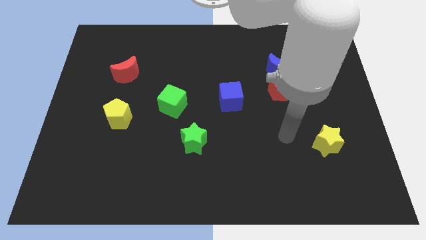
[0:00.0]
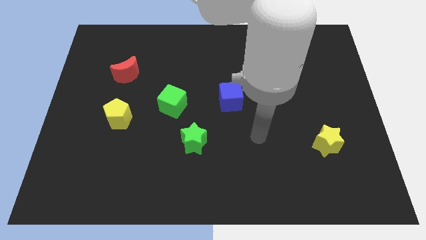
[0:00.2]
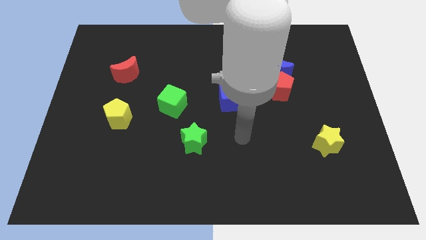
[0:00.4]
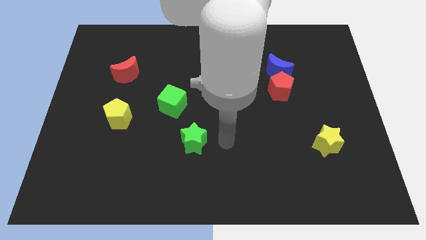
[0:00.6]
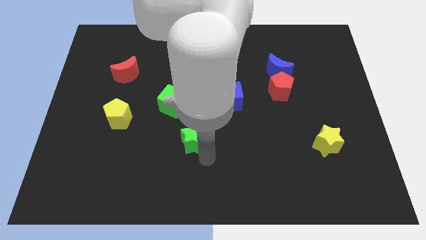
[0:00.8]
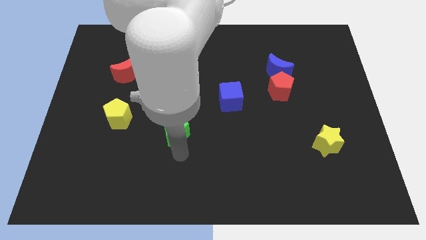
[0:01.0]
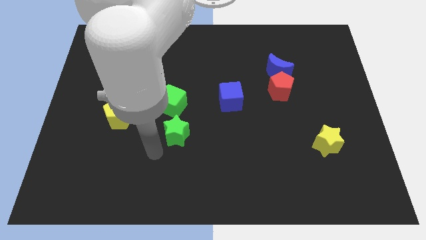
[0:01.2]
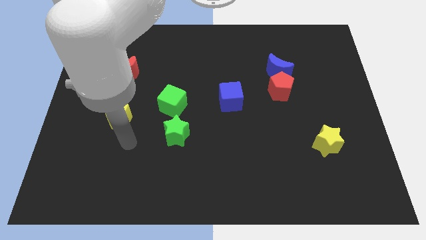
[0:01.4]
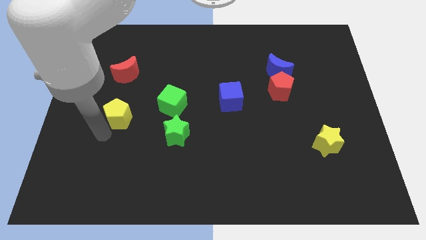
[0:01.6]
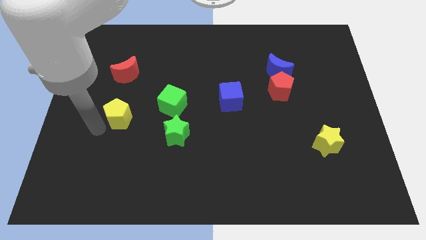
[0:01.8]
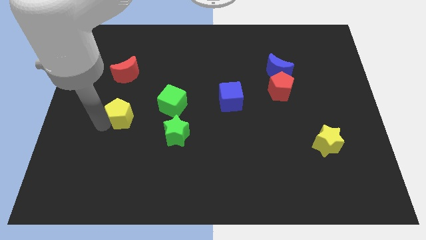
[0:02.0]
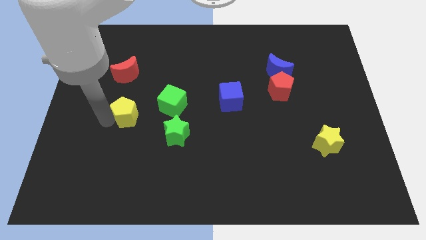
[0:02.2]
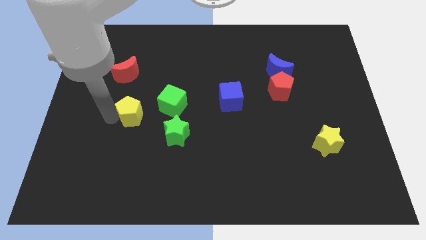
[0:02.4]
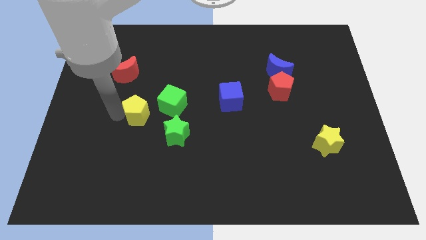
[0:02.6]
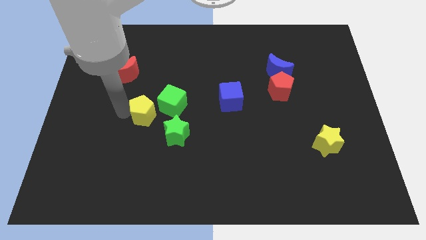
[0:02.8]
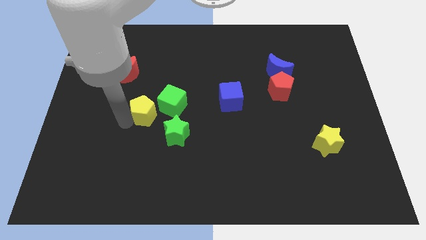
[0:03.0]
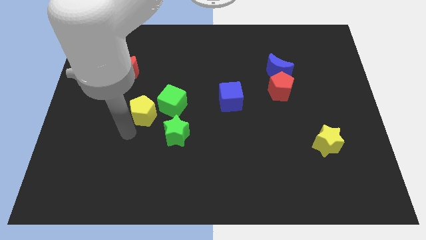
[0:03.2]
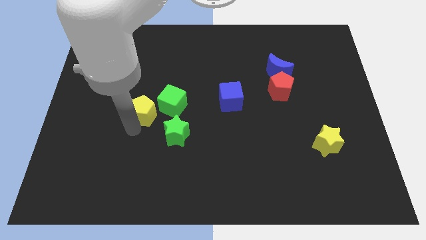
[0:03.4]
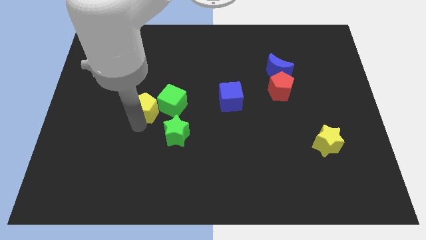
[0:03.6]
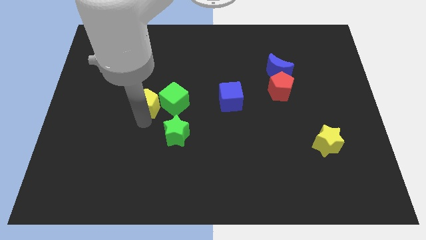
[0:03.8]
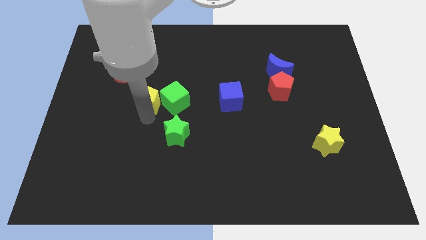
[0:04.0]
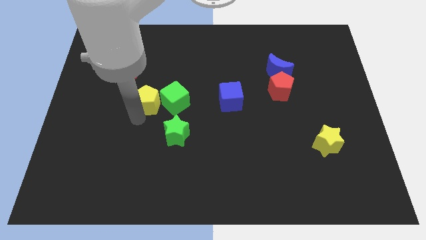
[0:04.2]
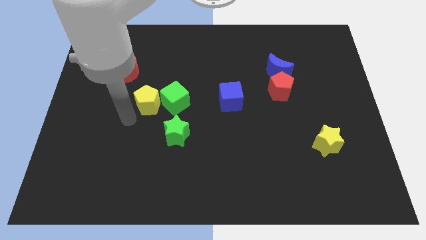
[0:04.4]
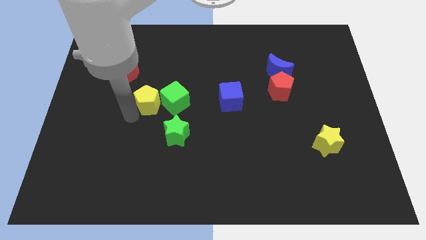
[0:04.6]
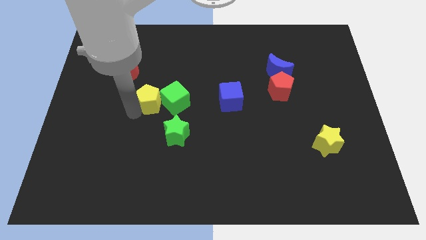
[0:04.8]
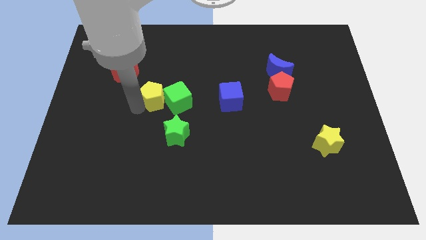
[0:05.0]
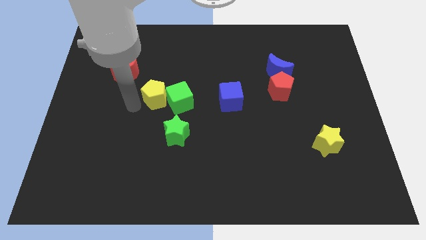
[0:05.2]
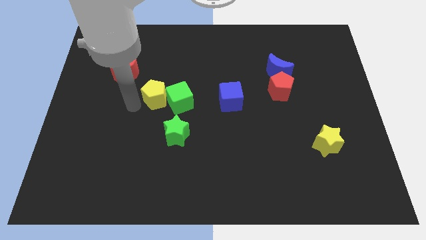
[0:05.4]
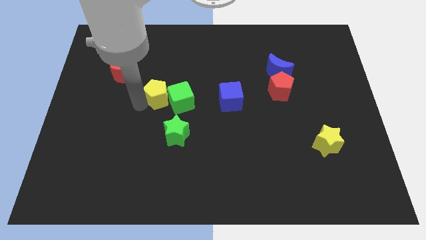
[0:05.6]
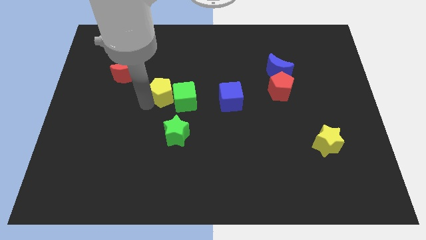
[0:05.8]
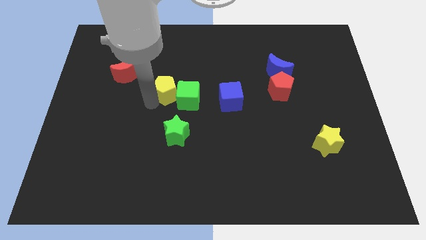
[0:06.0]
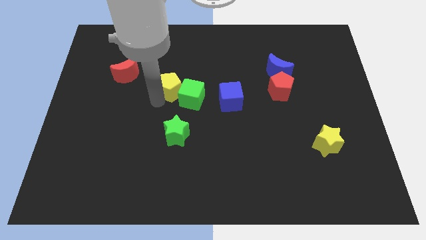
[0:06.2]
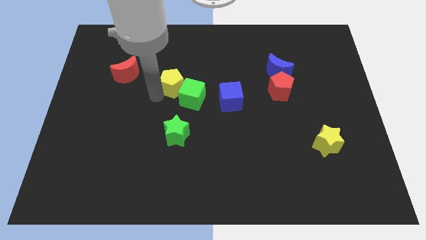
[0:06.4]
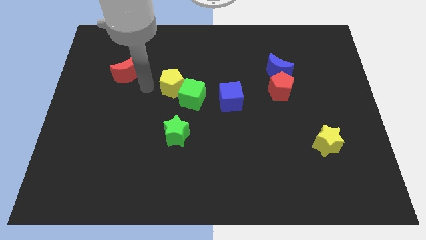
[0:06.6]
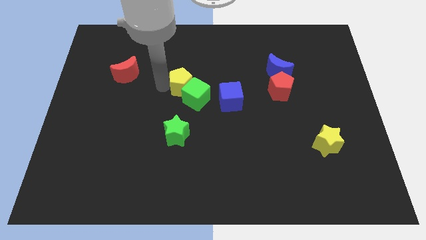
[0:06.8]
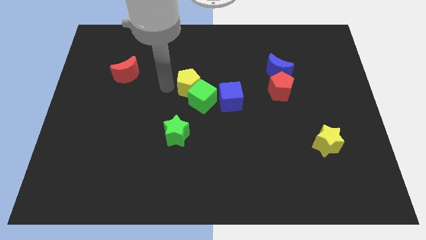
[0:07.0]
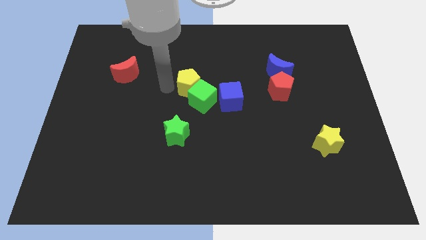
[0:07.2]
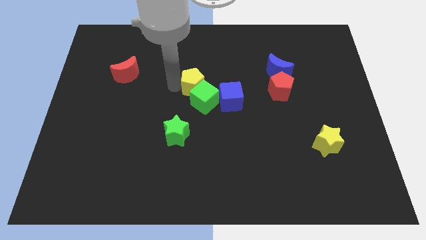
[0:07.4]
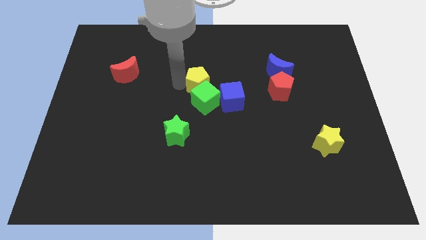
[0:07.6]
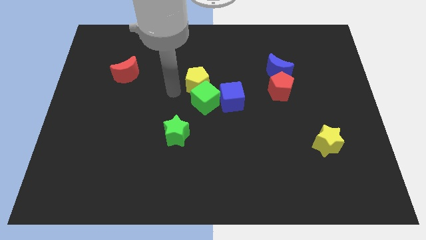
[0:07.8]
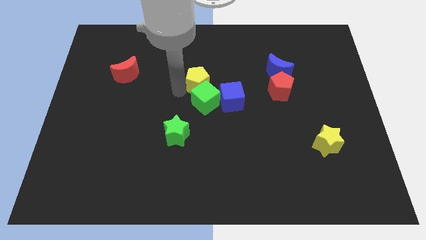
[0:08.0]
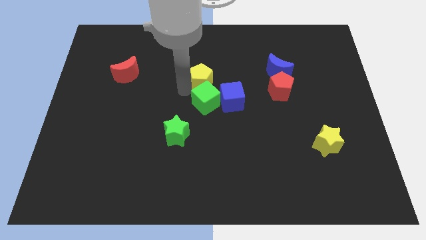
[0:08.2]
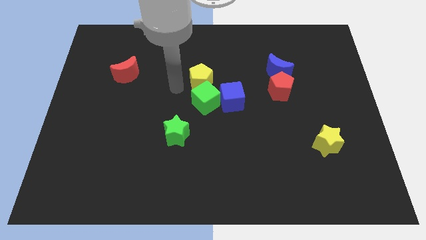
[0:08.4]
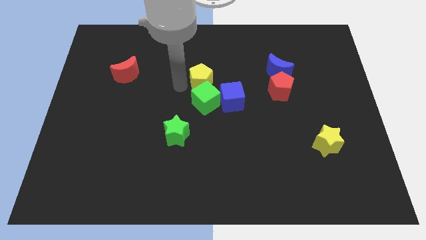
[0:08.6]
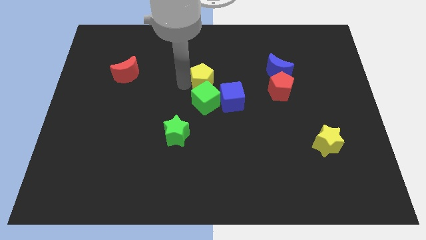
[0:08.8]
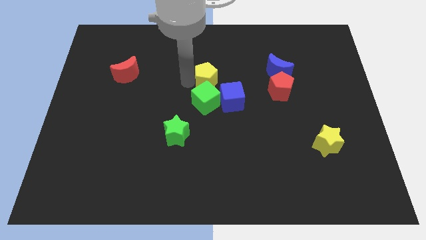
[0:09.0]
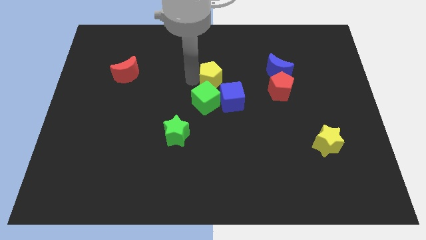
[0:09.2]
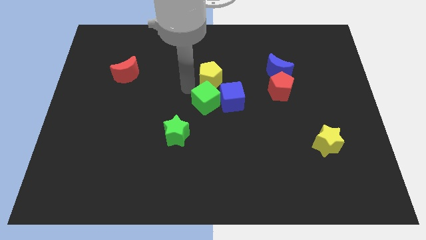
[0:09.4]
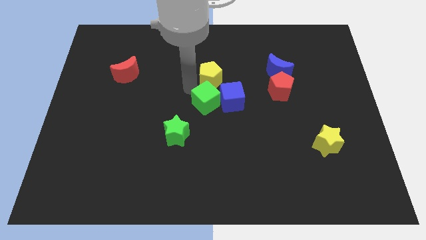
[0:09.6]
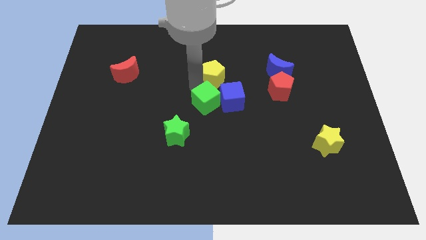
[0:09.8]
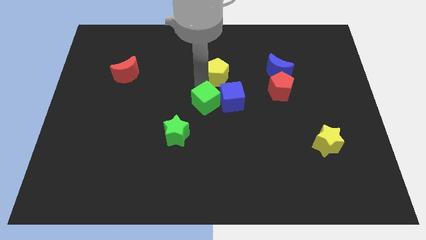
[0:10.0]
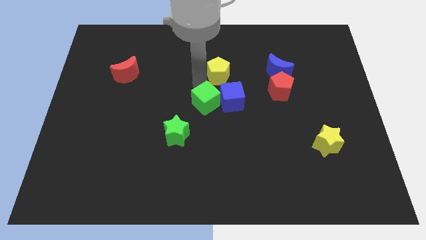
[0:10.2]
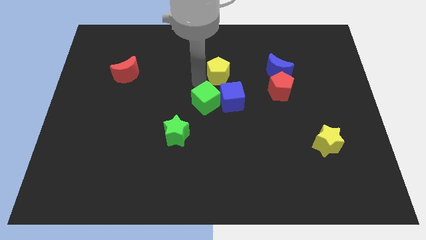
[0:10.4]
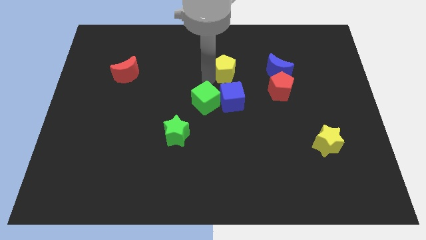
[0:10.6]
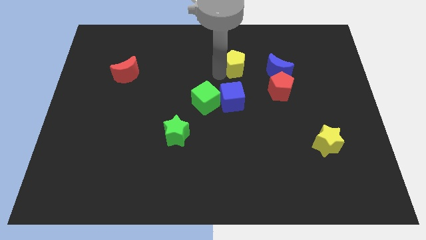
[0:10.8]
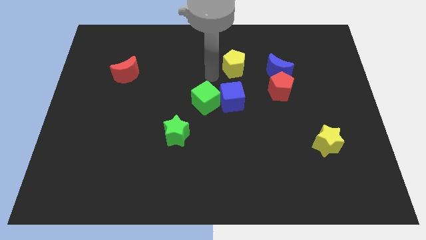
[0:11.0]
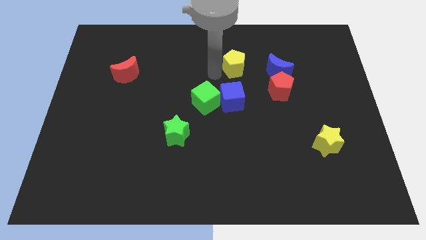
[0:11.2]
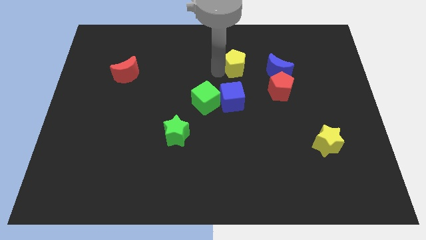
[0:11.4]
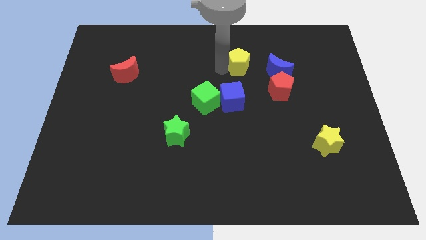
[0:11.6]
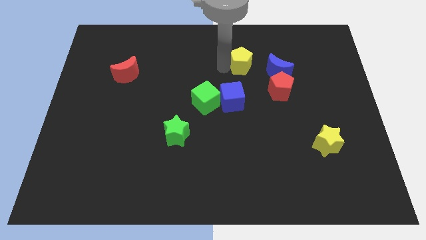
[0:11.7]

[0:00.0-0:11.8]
put the yellow pentagon diagonally up and to the left of the blue moon
